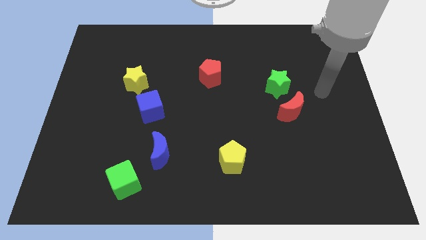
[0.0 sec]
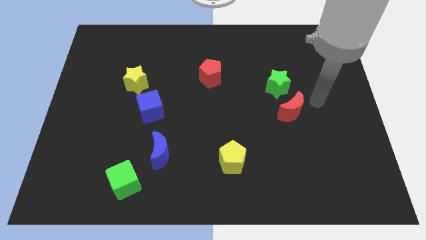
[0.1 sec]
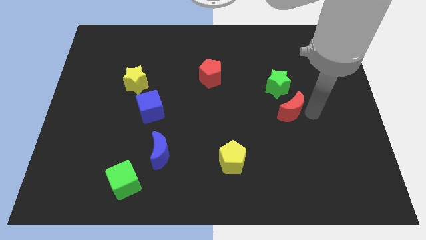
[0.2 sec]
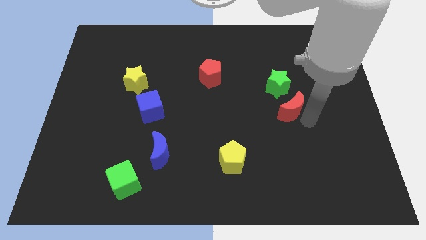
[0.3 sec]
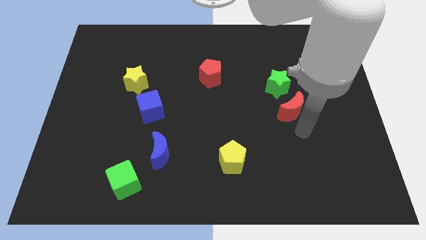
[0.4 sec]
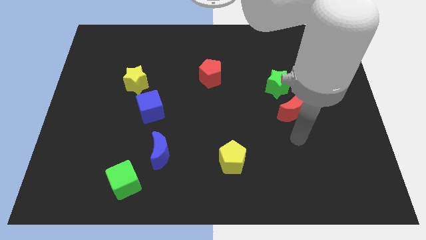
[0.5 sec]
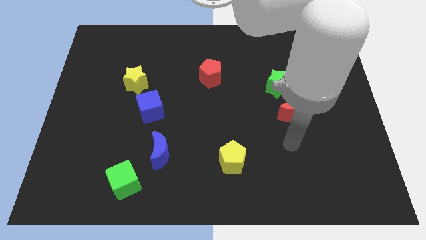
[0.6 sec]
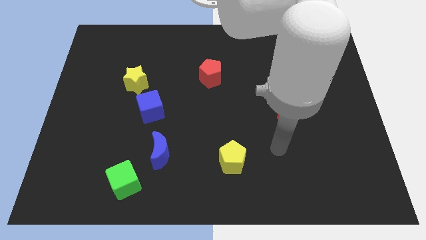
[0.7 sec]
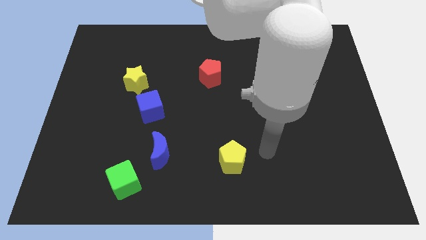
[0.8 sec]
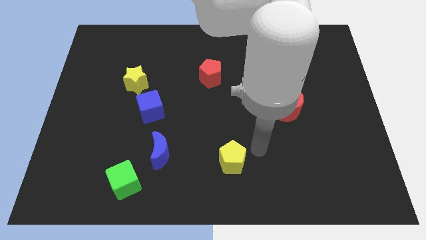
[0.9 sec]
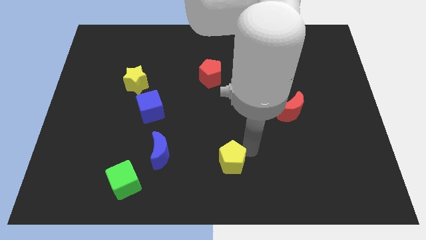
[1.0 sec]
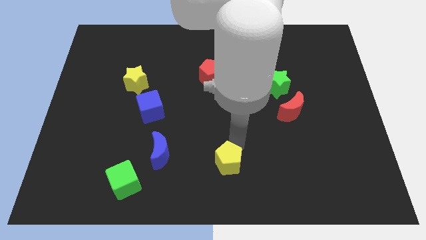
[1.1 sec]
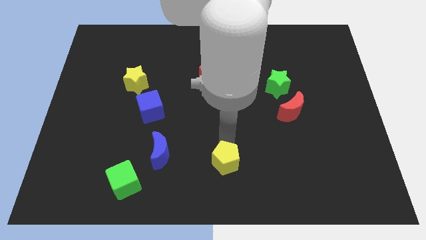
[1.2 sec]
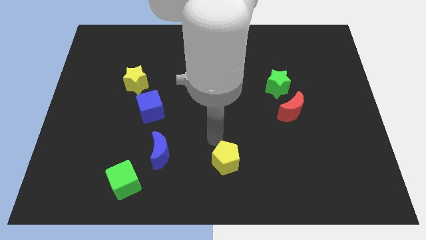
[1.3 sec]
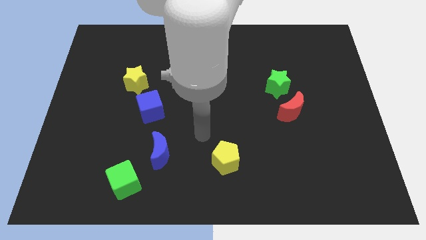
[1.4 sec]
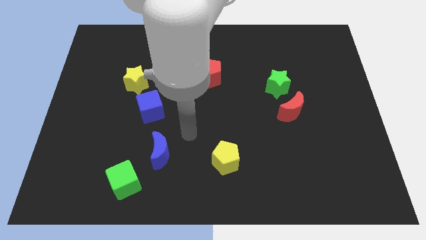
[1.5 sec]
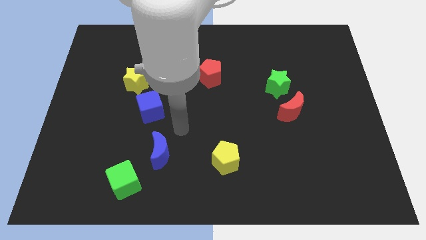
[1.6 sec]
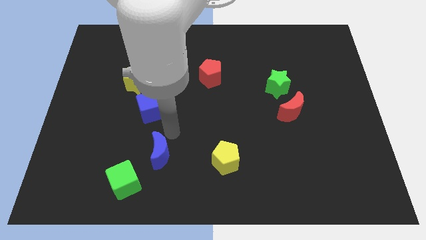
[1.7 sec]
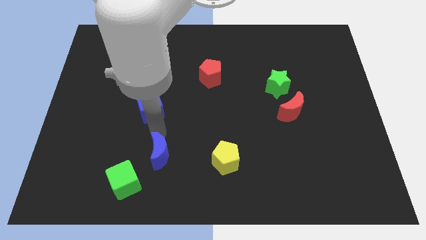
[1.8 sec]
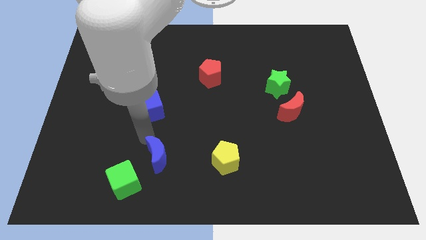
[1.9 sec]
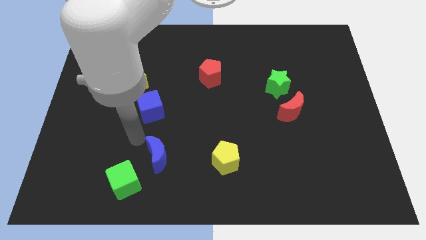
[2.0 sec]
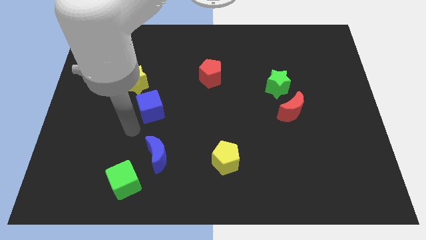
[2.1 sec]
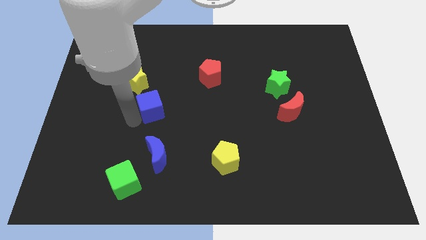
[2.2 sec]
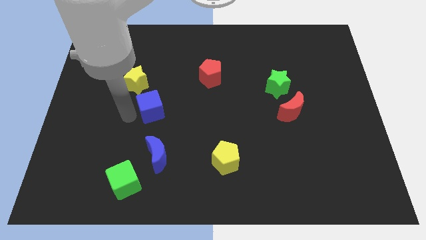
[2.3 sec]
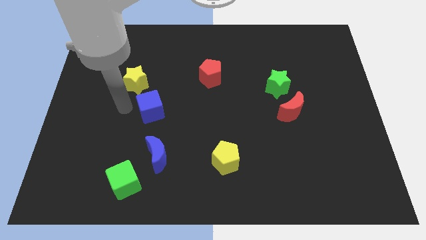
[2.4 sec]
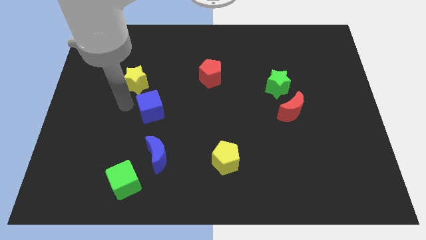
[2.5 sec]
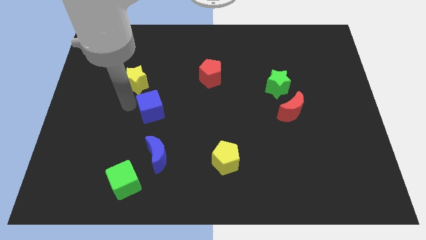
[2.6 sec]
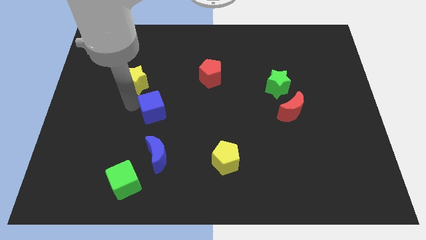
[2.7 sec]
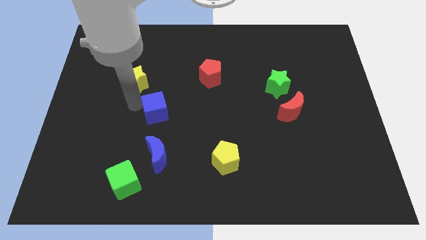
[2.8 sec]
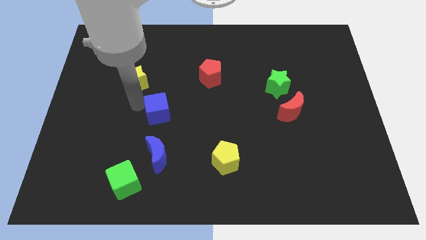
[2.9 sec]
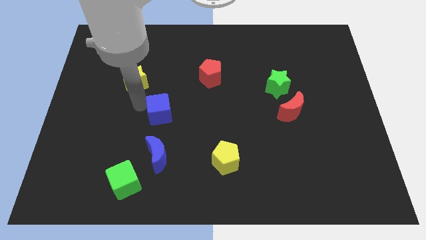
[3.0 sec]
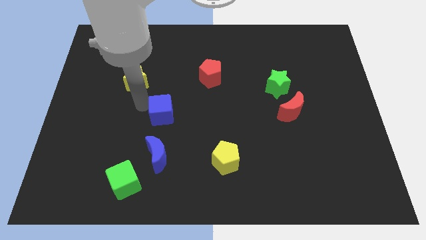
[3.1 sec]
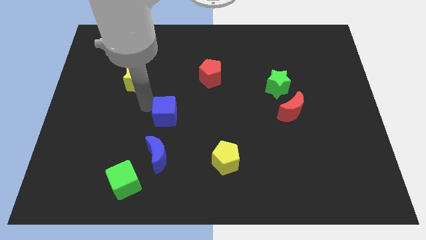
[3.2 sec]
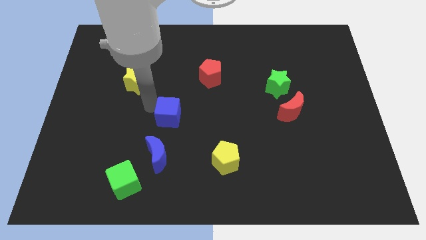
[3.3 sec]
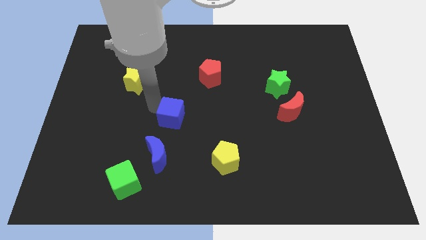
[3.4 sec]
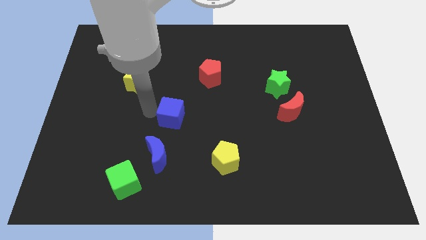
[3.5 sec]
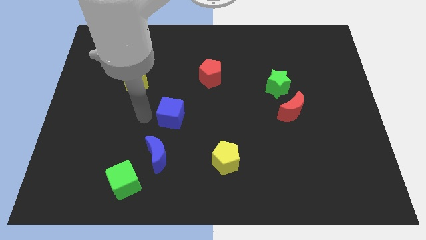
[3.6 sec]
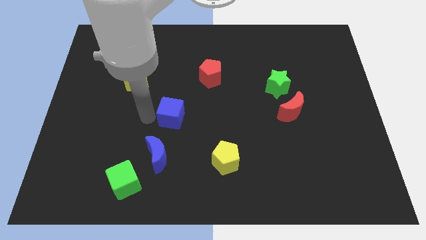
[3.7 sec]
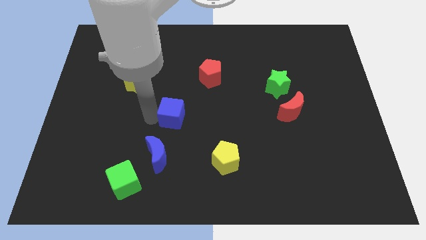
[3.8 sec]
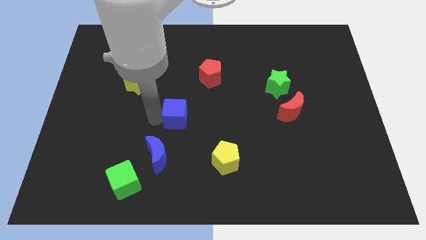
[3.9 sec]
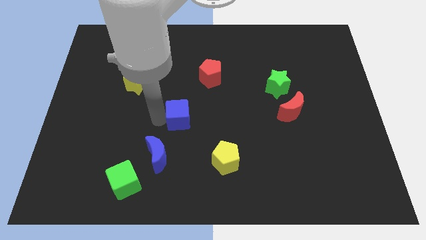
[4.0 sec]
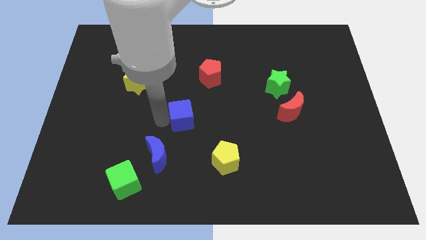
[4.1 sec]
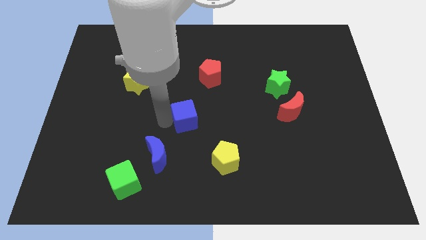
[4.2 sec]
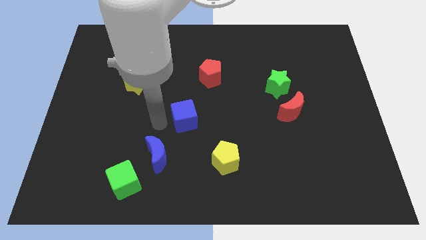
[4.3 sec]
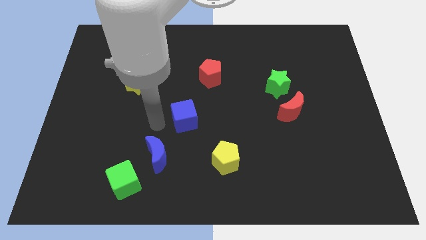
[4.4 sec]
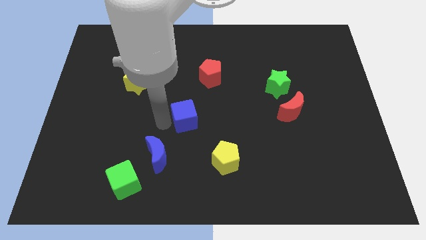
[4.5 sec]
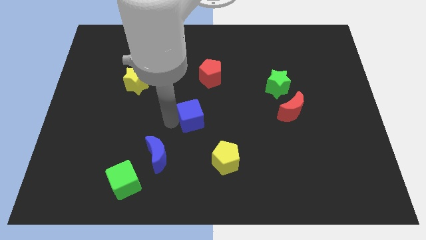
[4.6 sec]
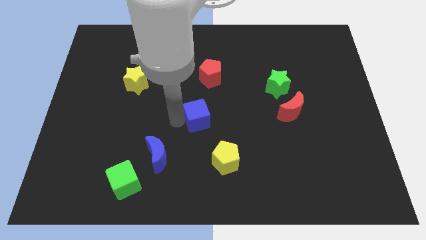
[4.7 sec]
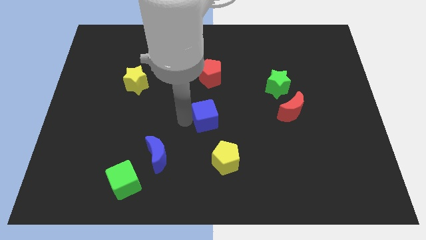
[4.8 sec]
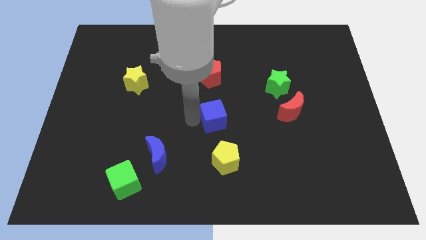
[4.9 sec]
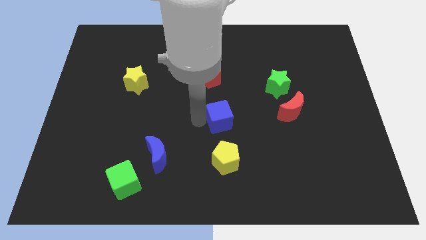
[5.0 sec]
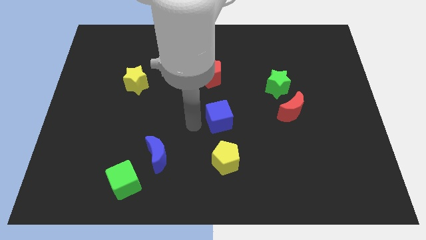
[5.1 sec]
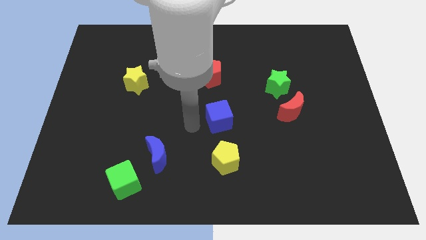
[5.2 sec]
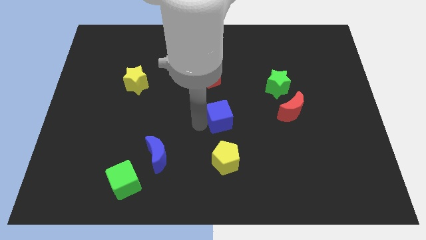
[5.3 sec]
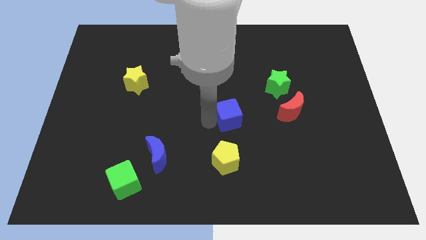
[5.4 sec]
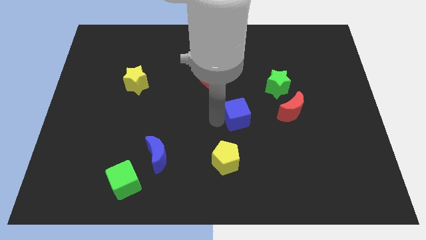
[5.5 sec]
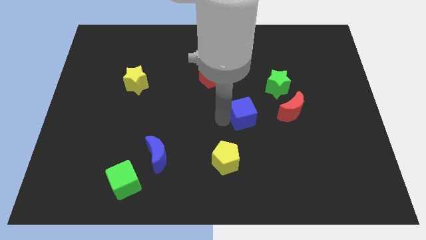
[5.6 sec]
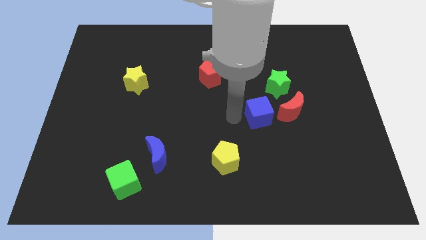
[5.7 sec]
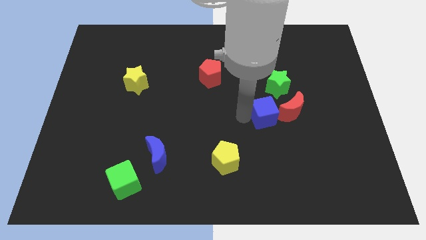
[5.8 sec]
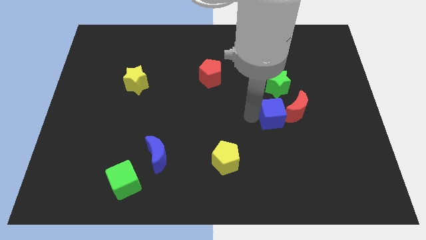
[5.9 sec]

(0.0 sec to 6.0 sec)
move the blue cube towards the red moon

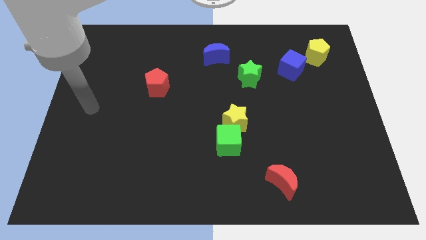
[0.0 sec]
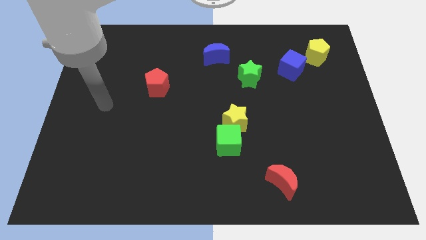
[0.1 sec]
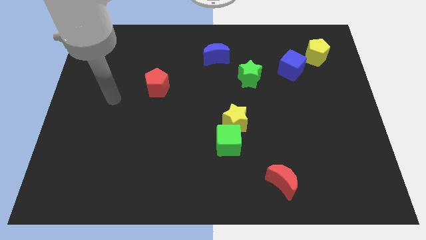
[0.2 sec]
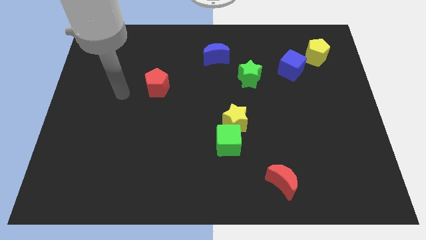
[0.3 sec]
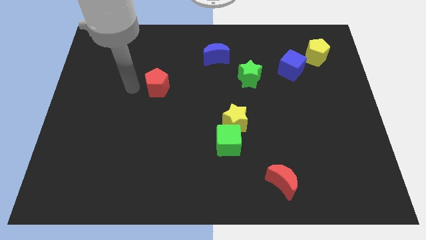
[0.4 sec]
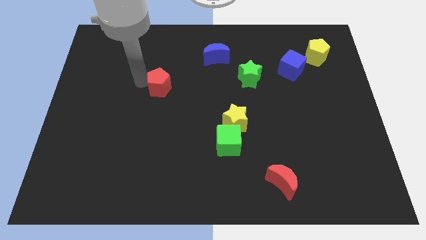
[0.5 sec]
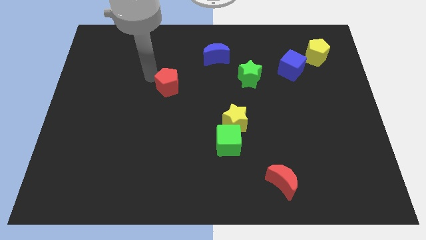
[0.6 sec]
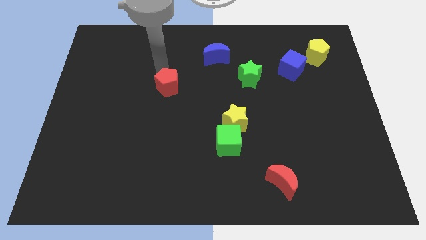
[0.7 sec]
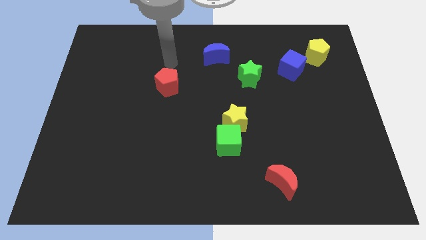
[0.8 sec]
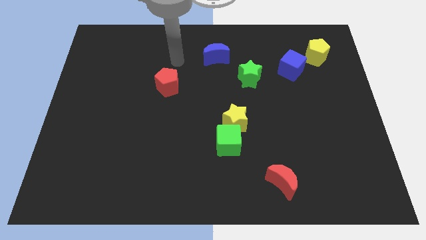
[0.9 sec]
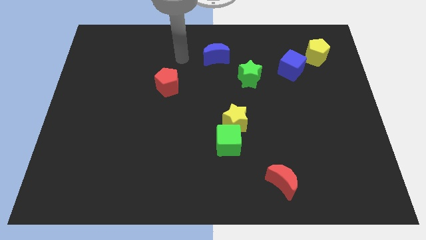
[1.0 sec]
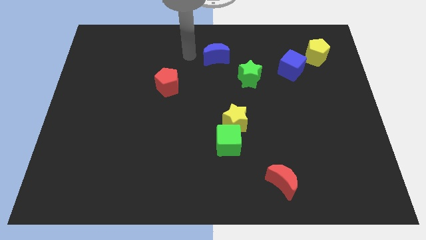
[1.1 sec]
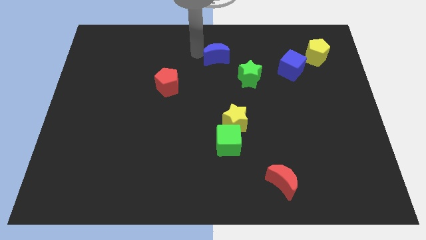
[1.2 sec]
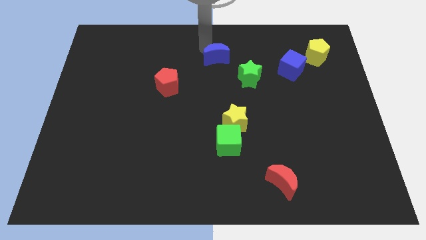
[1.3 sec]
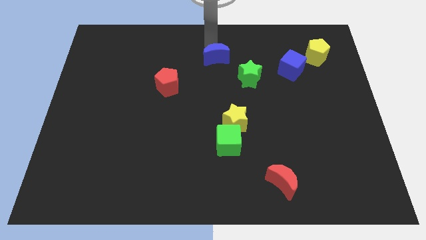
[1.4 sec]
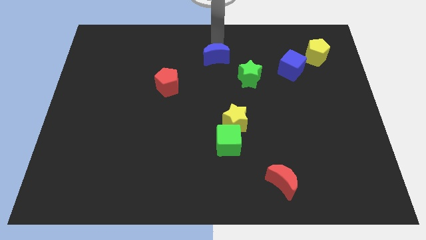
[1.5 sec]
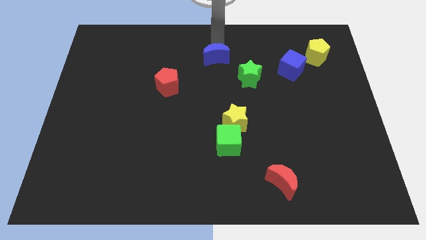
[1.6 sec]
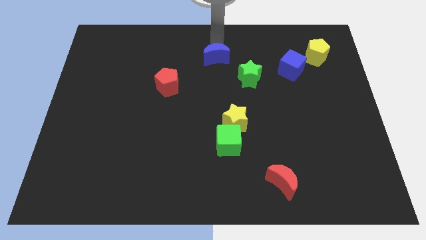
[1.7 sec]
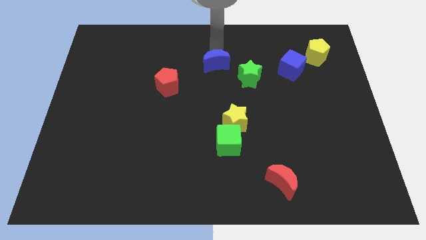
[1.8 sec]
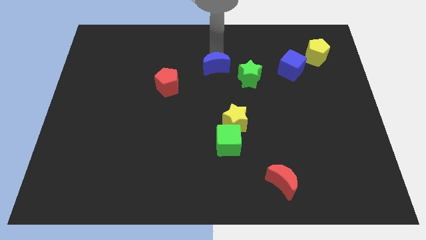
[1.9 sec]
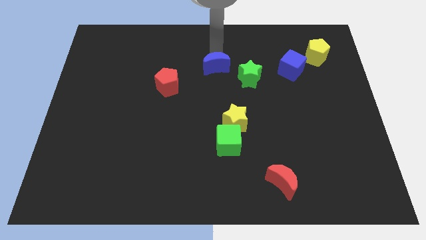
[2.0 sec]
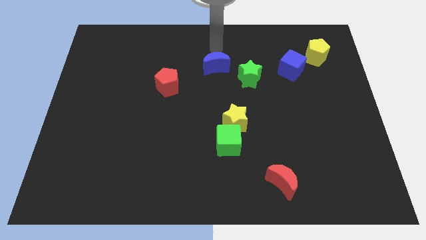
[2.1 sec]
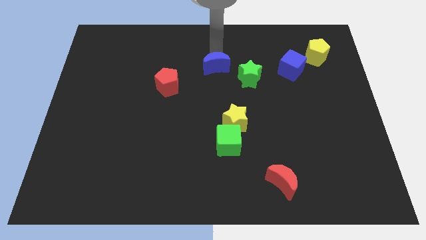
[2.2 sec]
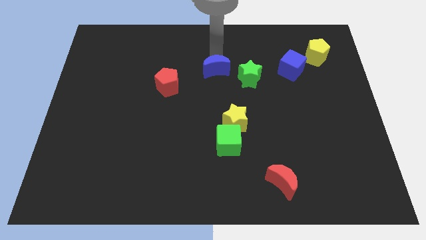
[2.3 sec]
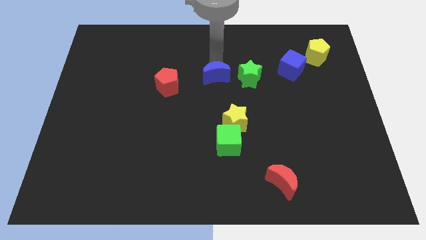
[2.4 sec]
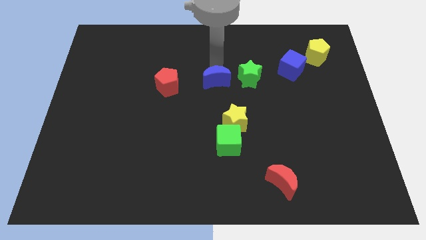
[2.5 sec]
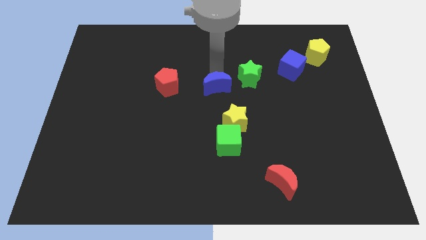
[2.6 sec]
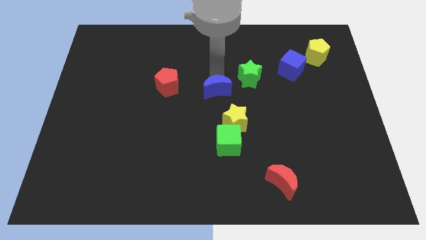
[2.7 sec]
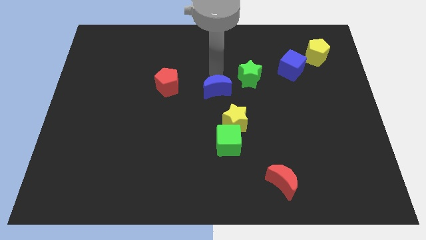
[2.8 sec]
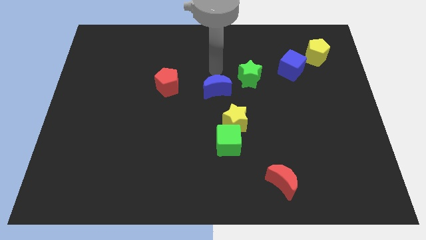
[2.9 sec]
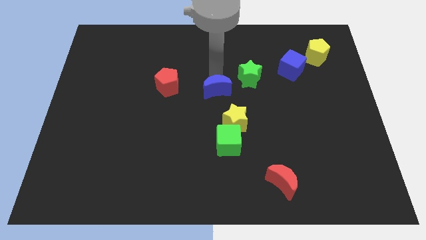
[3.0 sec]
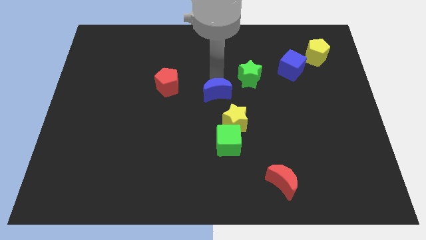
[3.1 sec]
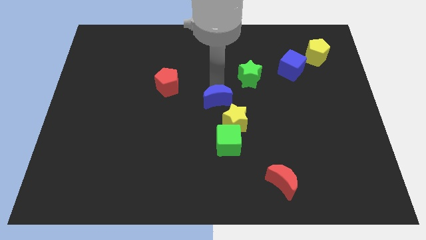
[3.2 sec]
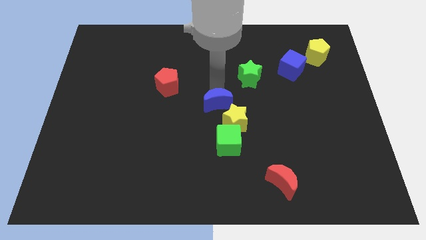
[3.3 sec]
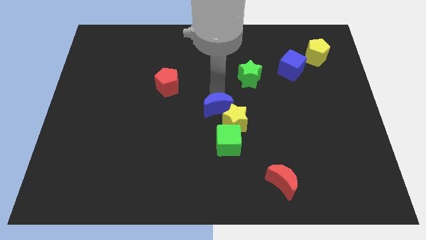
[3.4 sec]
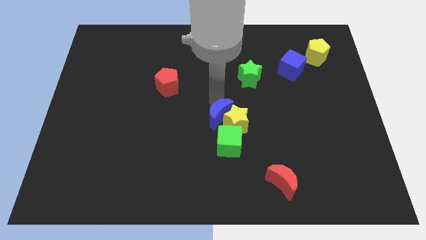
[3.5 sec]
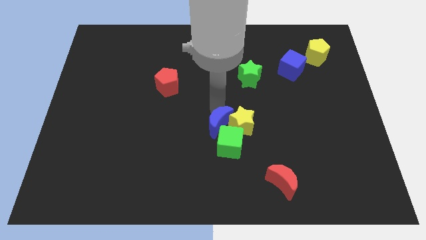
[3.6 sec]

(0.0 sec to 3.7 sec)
slide the blue moon close to the green cube
